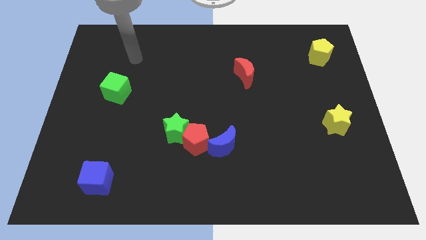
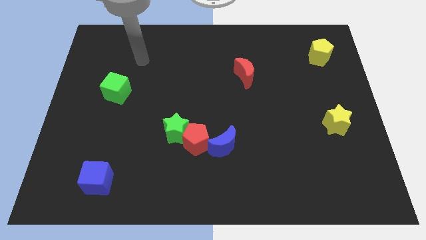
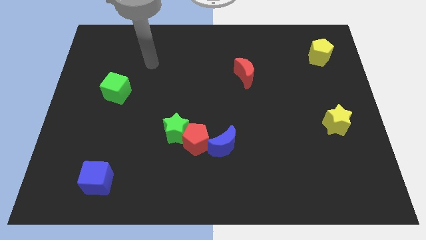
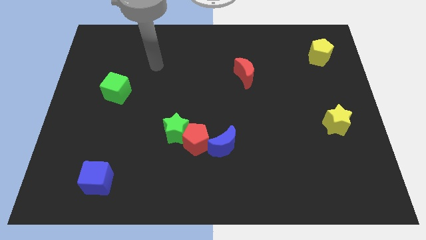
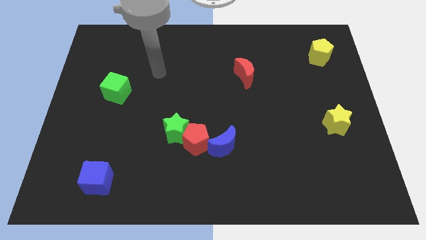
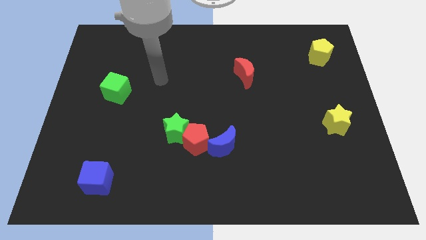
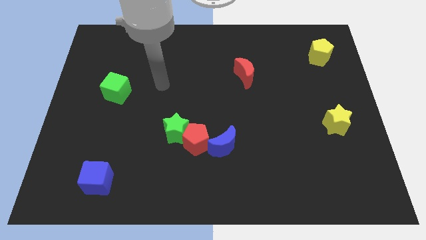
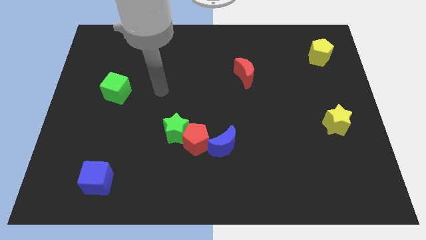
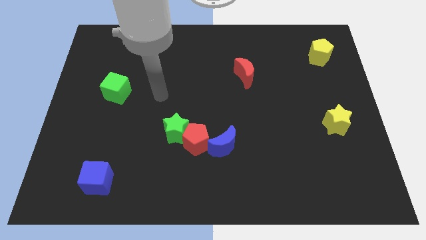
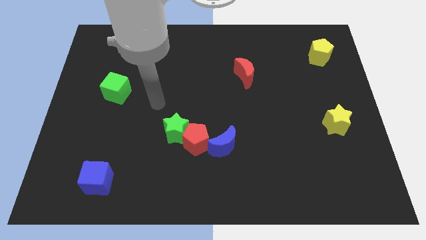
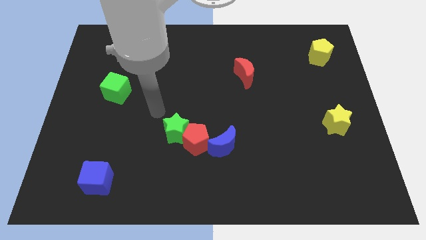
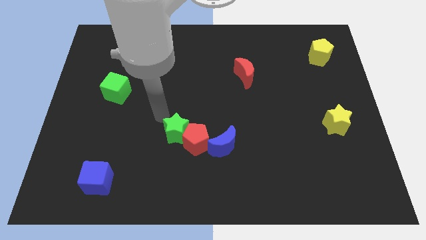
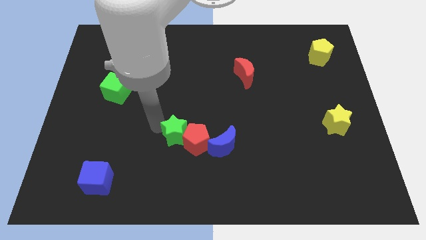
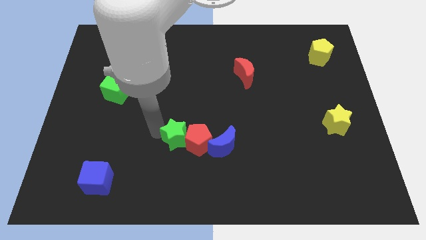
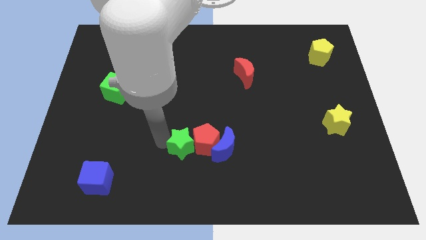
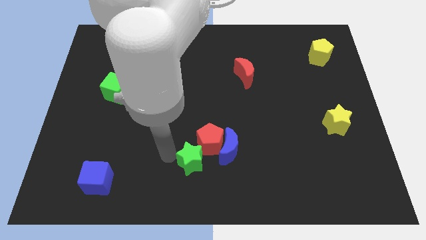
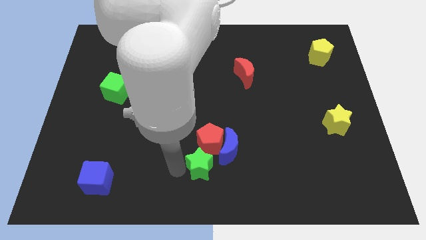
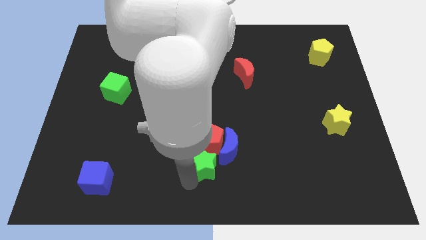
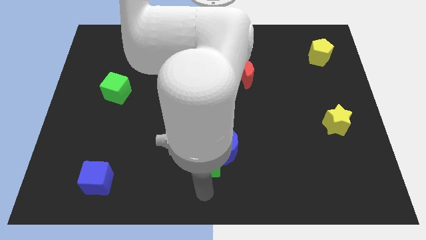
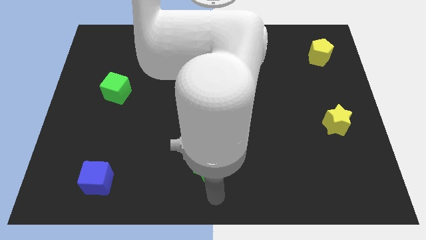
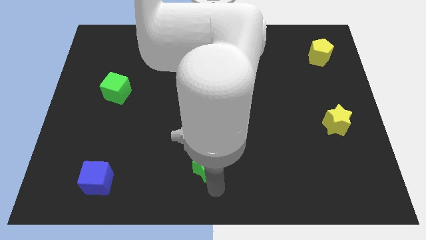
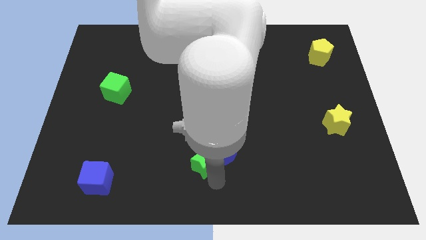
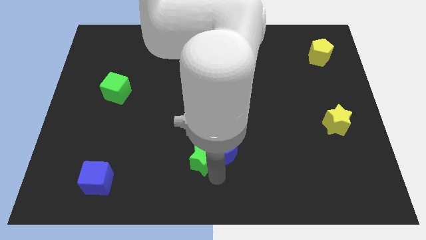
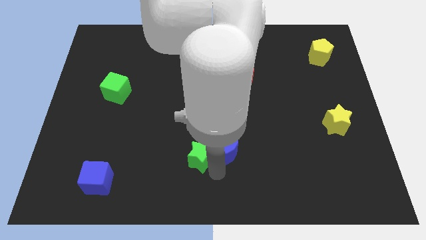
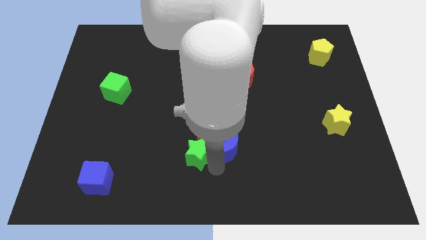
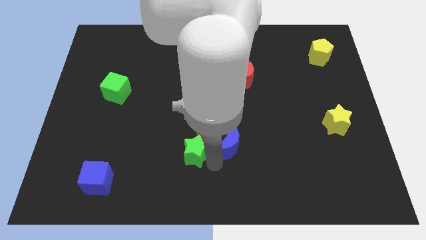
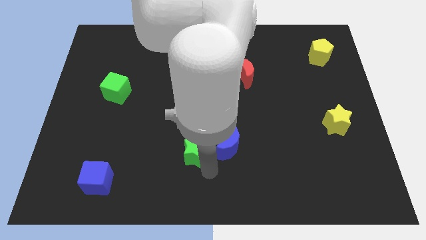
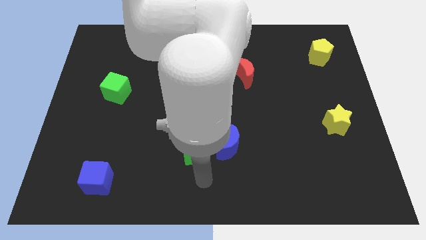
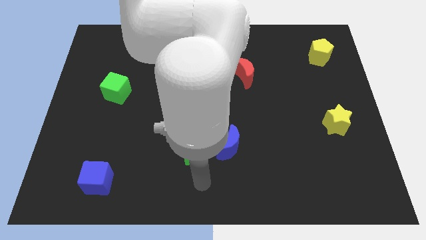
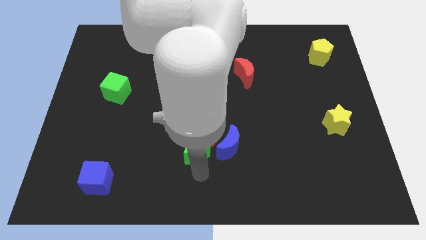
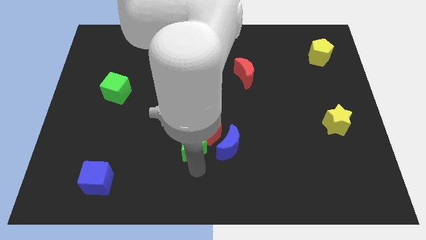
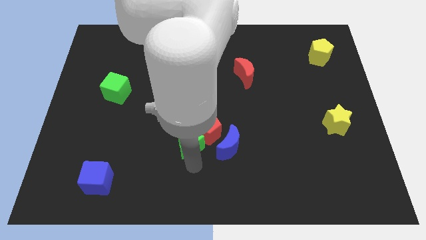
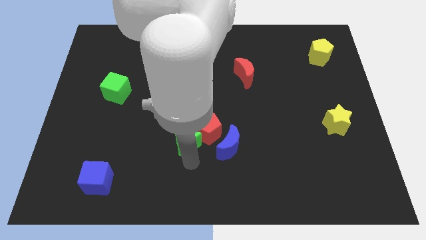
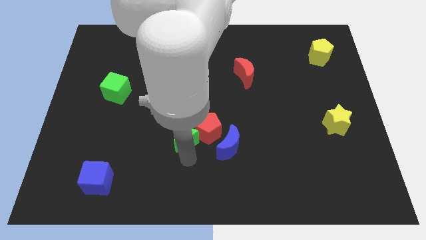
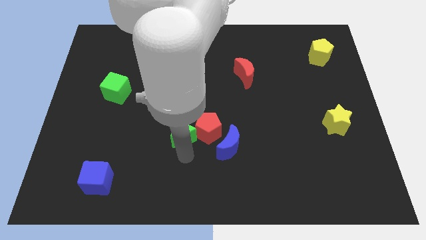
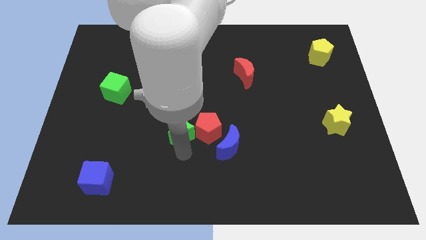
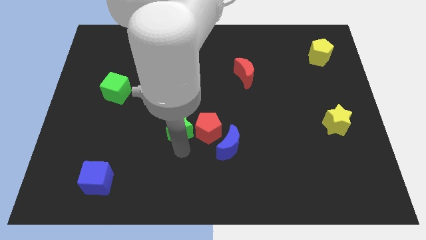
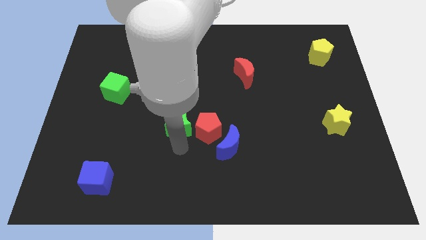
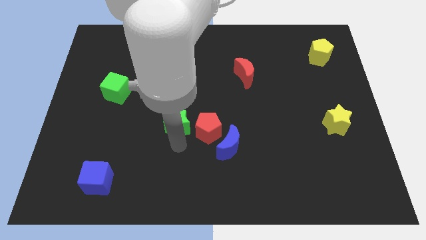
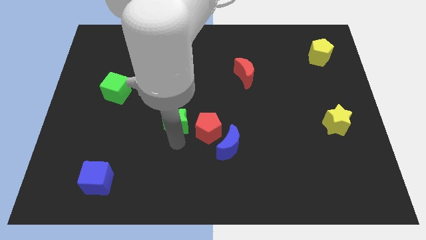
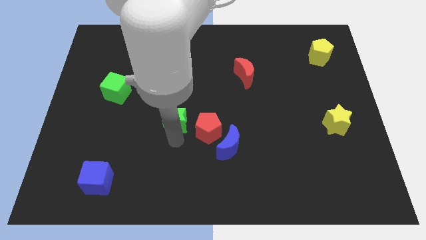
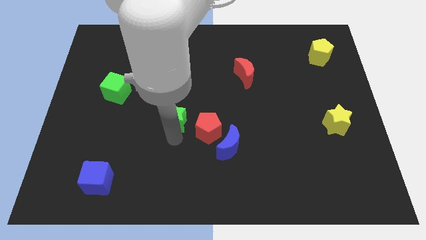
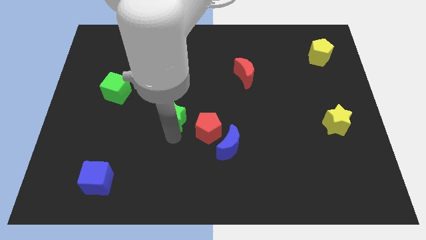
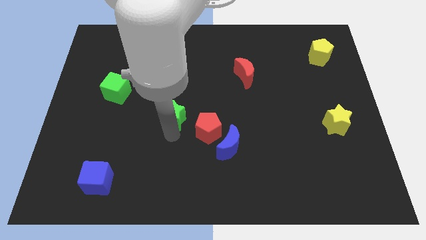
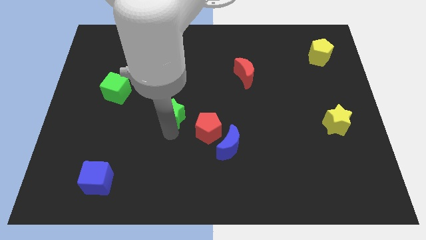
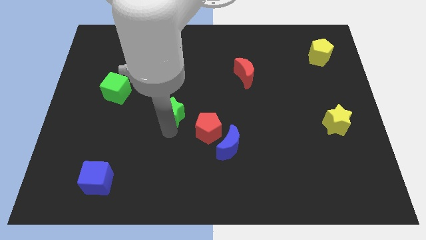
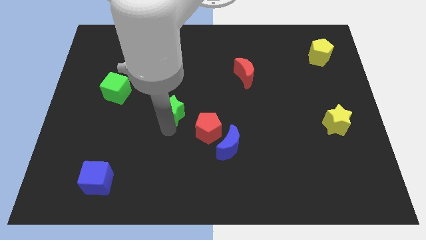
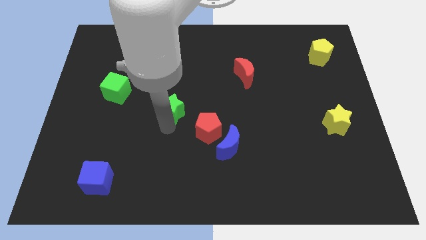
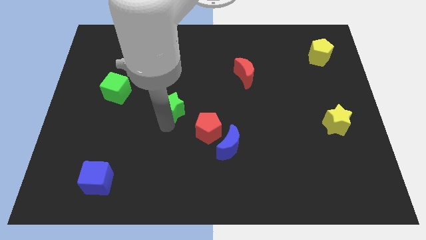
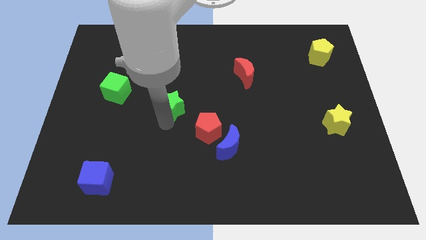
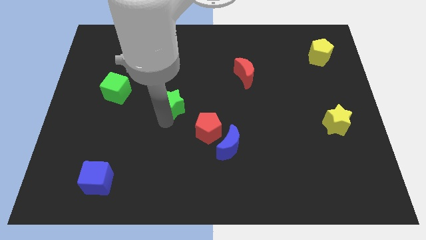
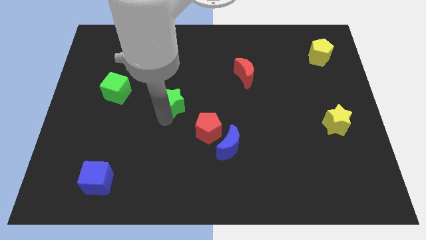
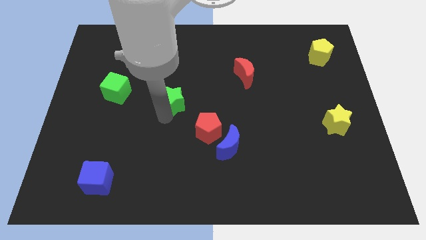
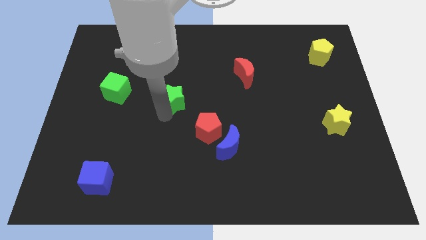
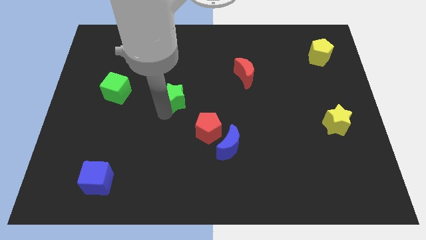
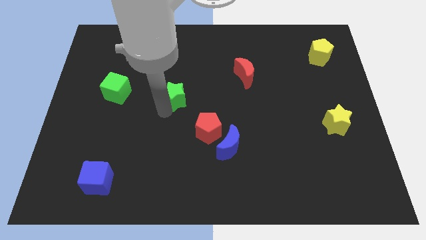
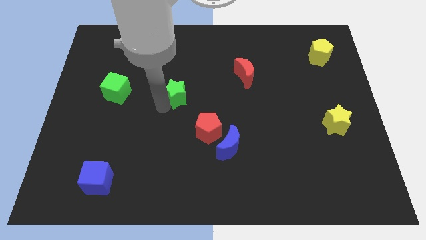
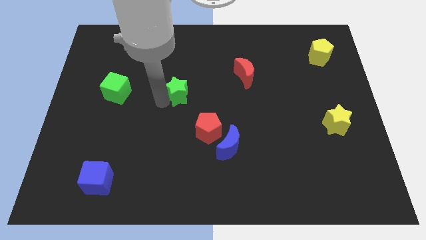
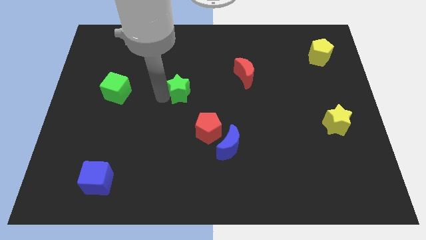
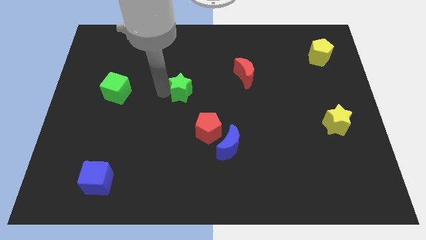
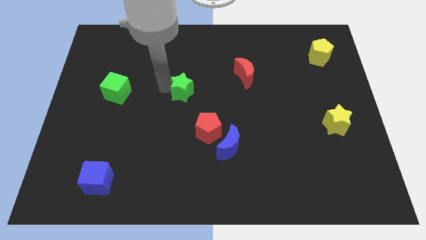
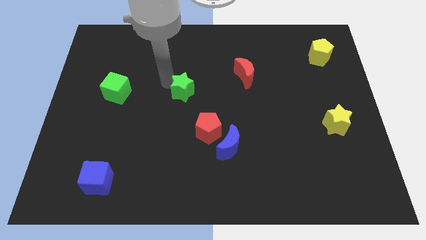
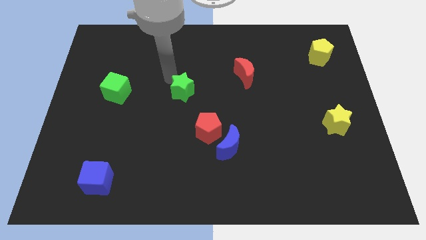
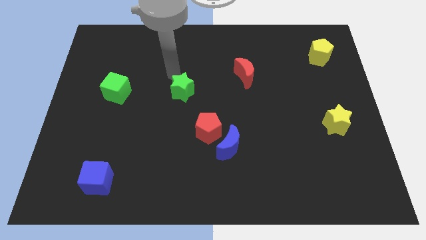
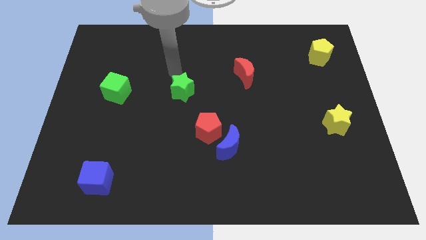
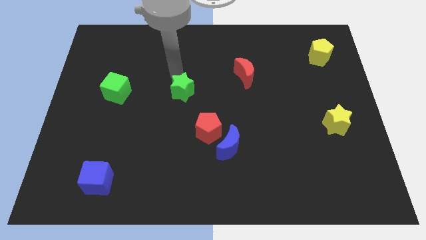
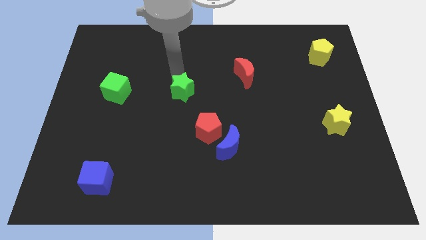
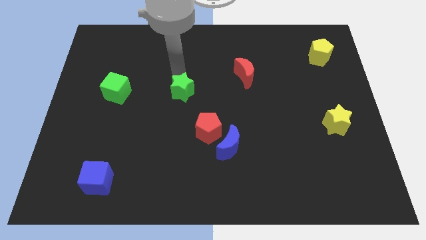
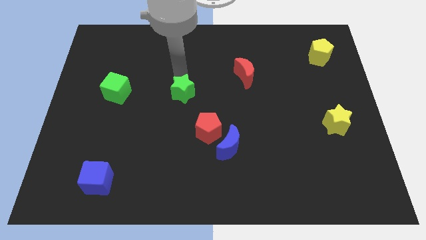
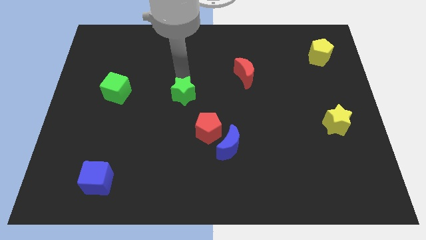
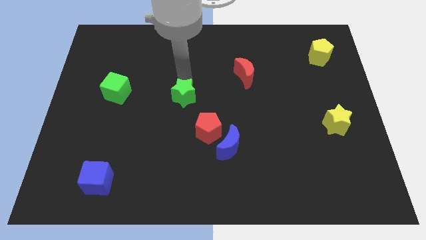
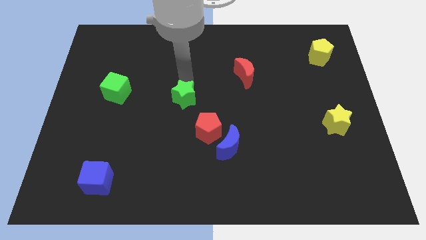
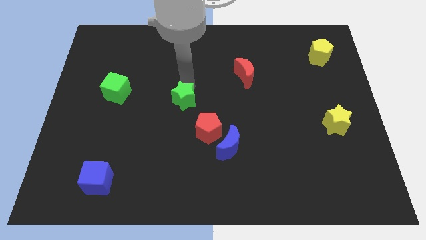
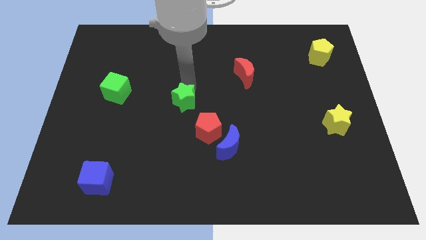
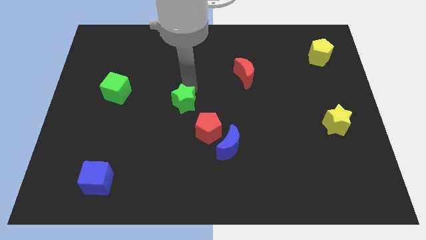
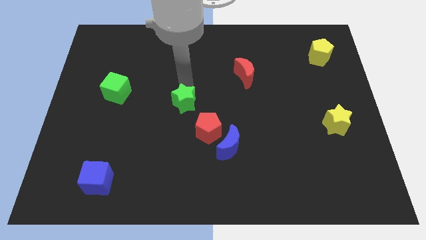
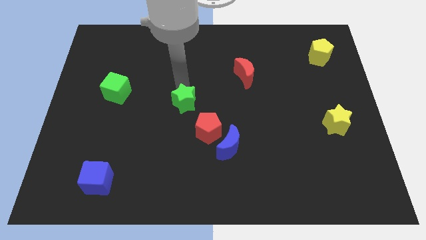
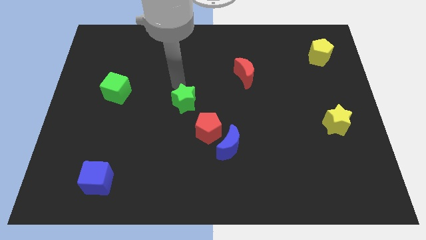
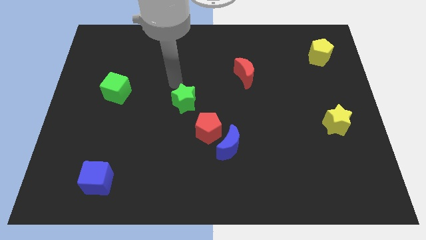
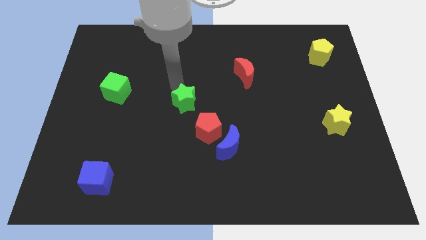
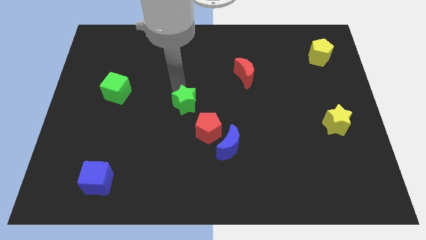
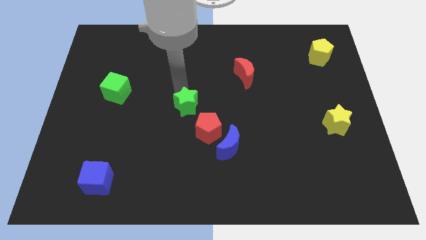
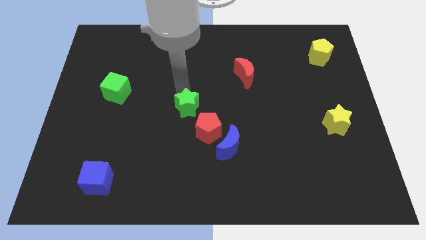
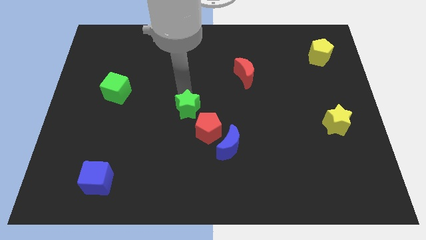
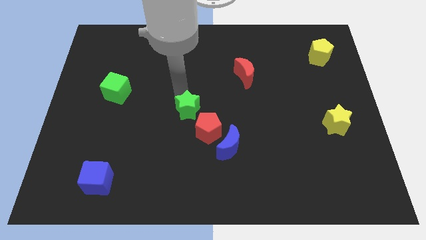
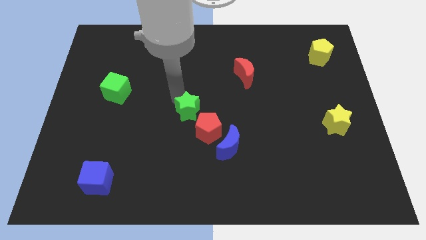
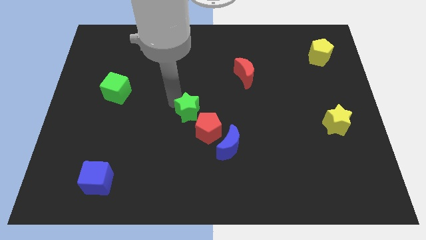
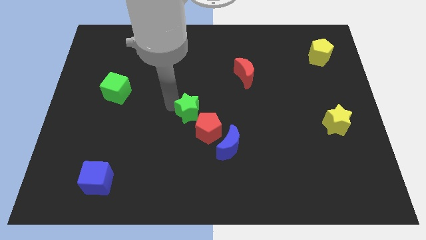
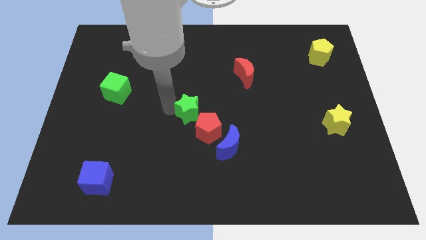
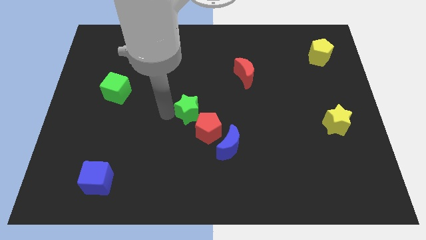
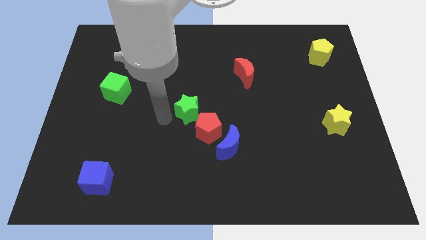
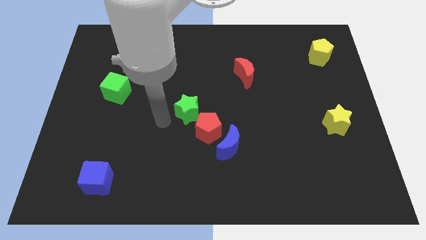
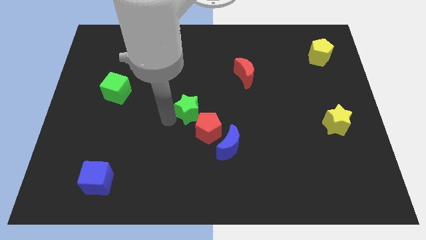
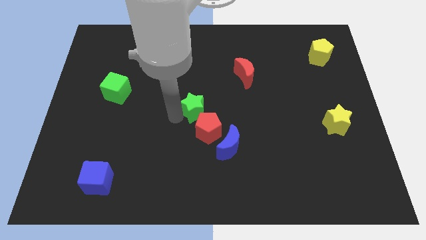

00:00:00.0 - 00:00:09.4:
push the green star a little bit upwards and then right
